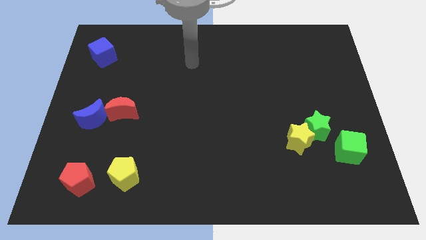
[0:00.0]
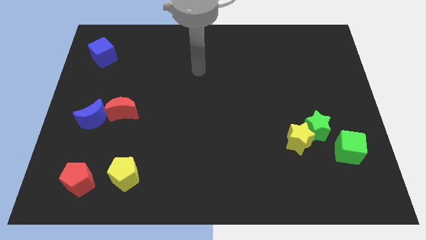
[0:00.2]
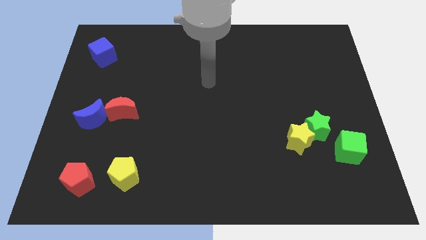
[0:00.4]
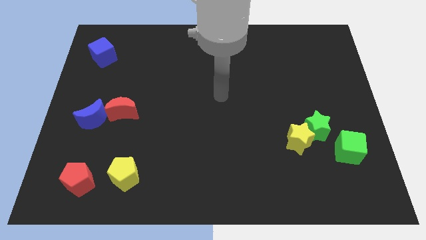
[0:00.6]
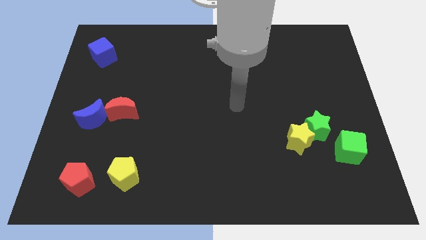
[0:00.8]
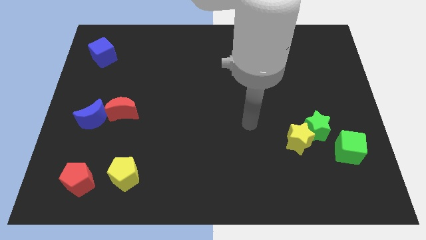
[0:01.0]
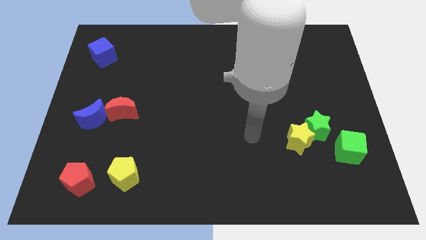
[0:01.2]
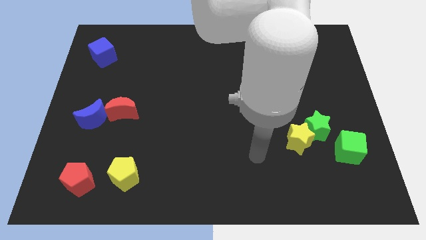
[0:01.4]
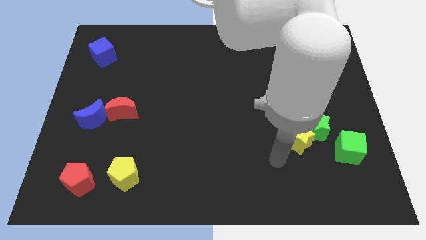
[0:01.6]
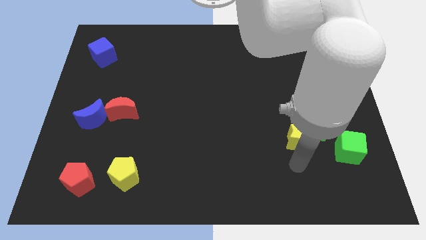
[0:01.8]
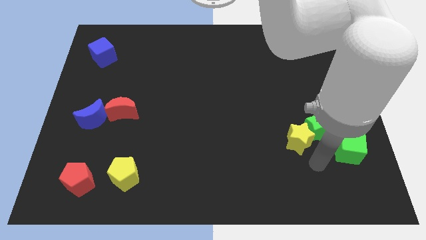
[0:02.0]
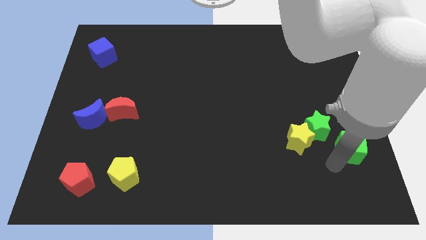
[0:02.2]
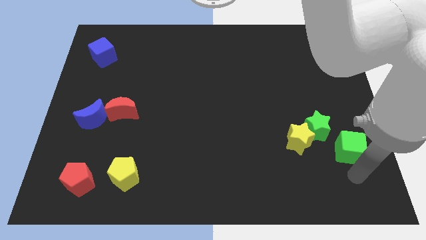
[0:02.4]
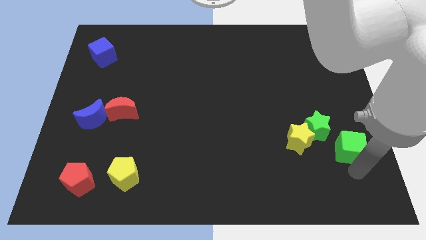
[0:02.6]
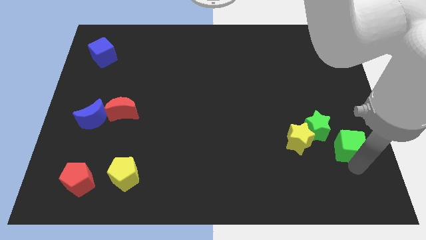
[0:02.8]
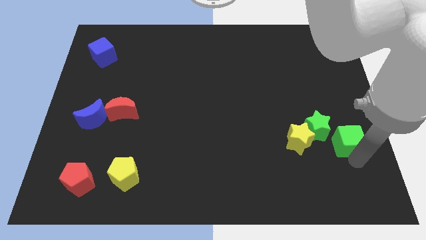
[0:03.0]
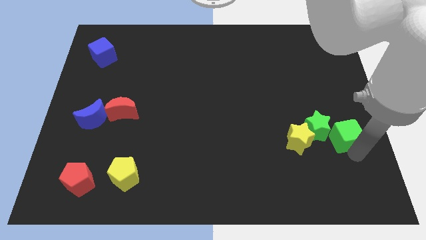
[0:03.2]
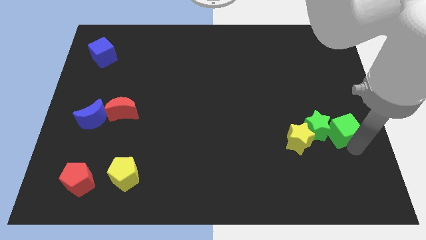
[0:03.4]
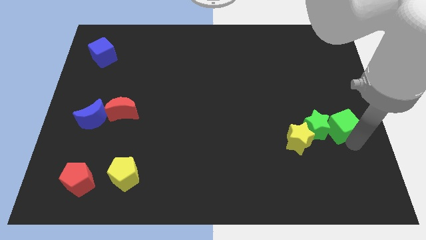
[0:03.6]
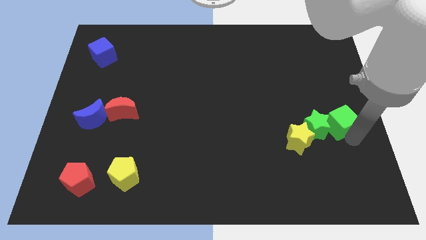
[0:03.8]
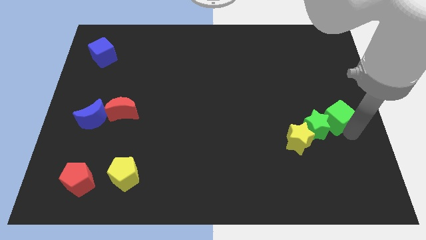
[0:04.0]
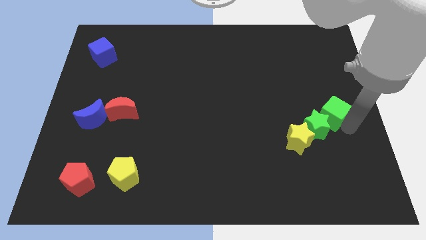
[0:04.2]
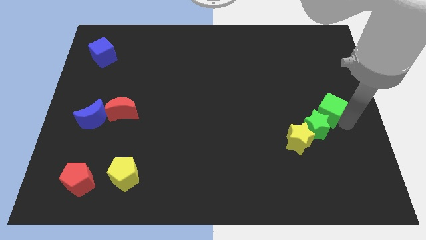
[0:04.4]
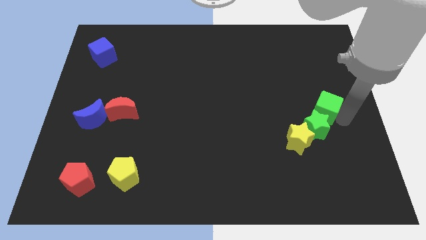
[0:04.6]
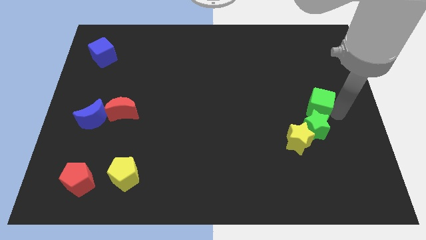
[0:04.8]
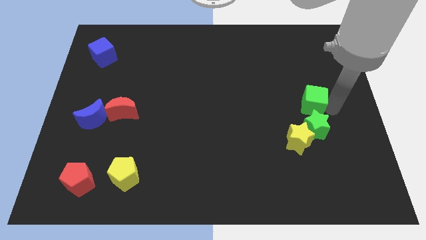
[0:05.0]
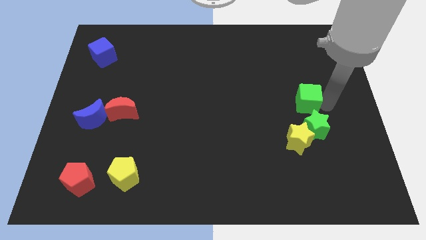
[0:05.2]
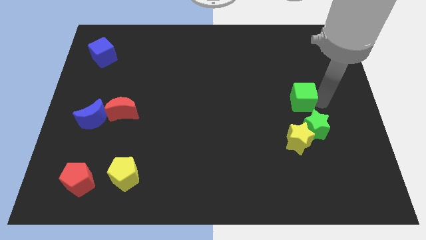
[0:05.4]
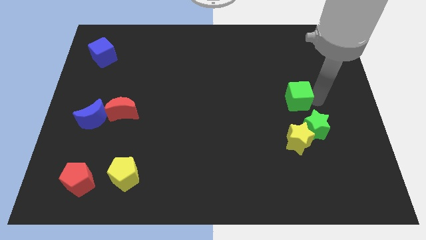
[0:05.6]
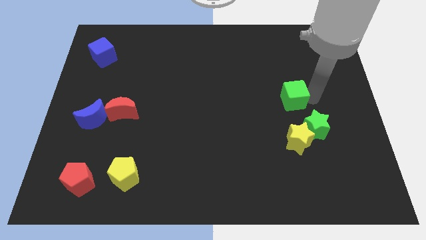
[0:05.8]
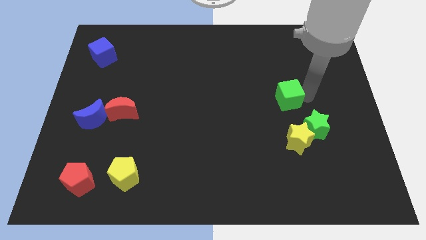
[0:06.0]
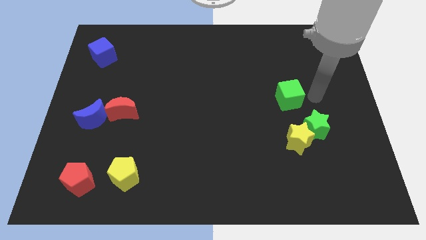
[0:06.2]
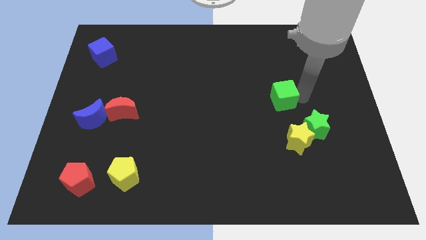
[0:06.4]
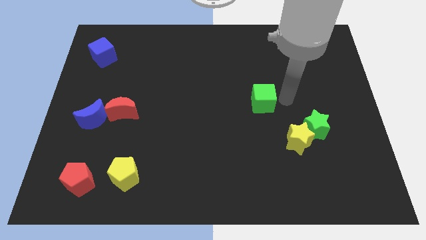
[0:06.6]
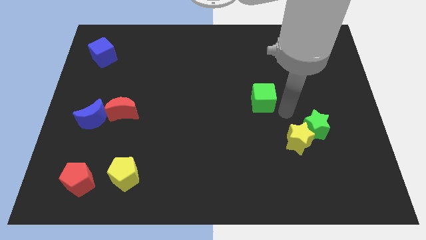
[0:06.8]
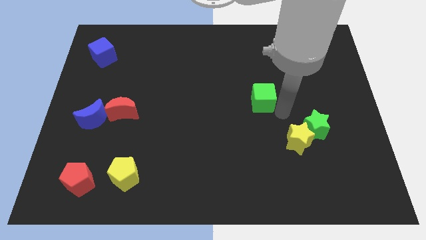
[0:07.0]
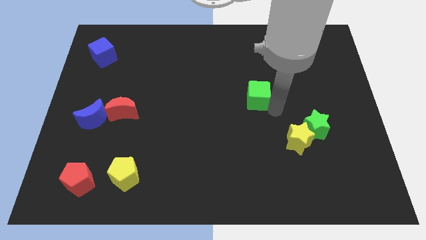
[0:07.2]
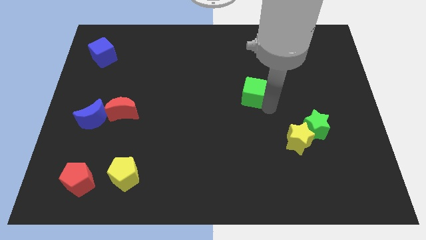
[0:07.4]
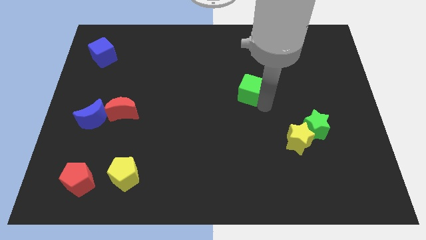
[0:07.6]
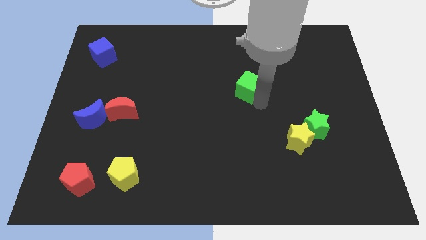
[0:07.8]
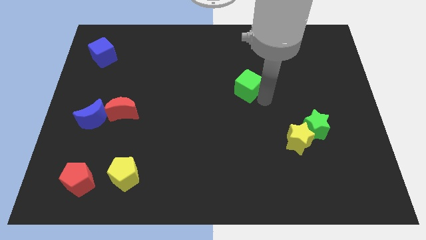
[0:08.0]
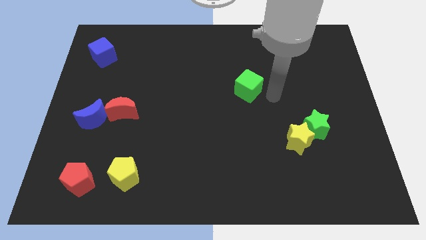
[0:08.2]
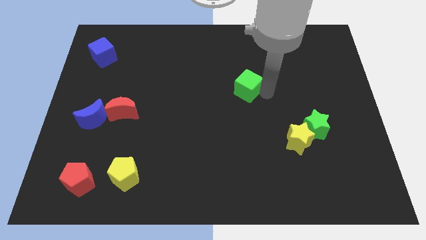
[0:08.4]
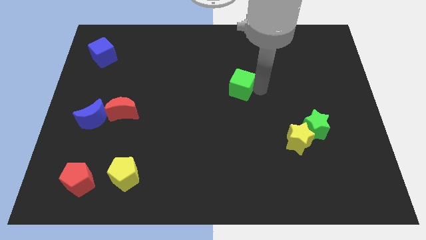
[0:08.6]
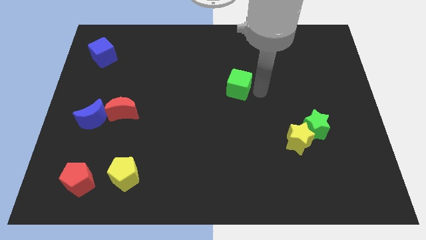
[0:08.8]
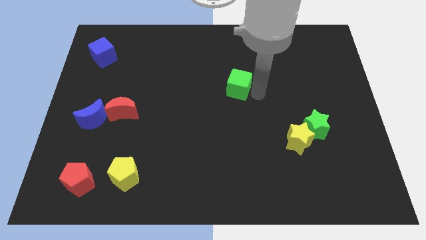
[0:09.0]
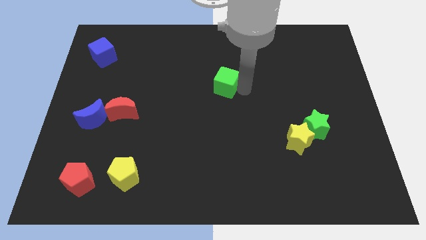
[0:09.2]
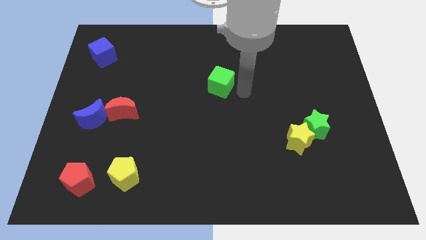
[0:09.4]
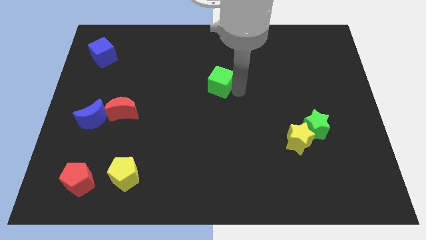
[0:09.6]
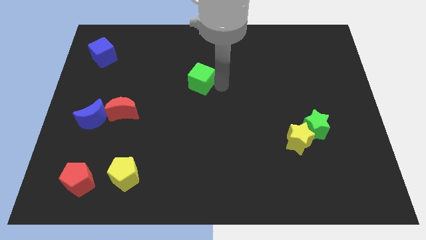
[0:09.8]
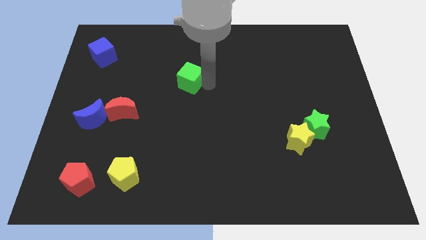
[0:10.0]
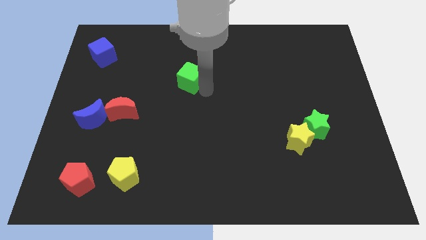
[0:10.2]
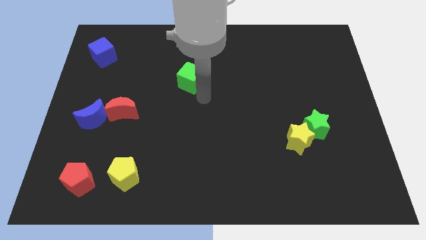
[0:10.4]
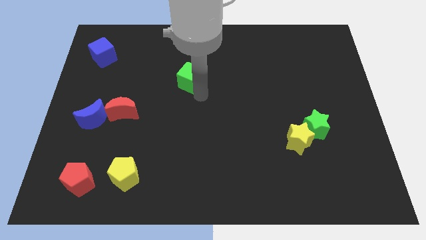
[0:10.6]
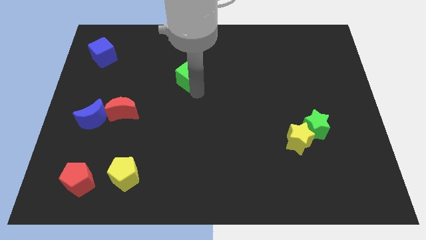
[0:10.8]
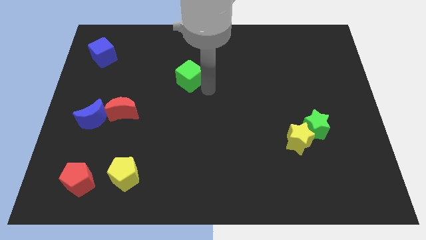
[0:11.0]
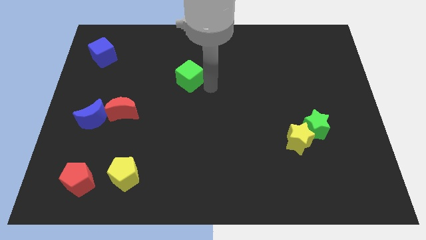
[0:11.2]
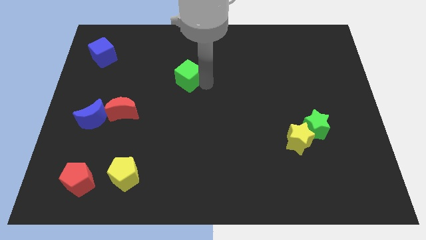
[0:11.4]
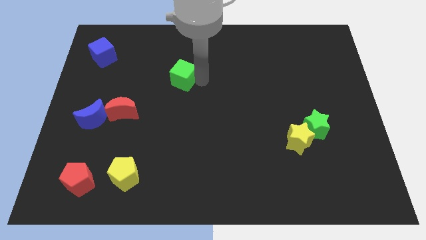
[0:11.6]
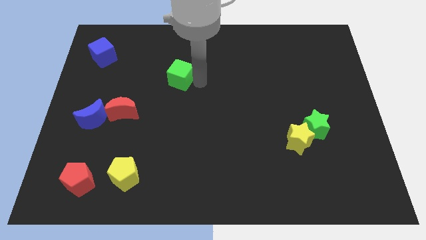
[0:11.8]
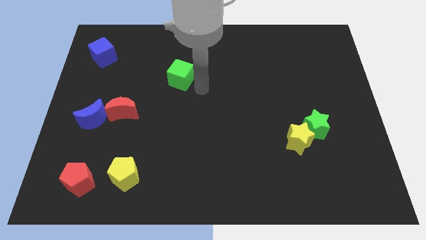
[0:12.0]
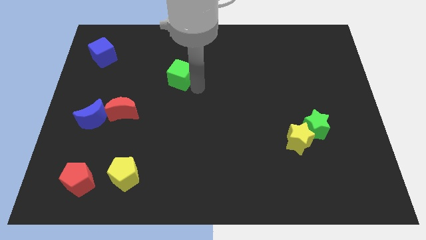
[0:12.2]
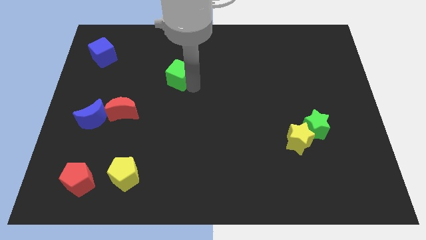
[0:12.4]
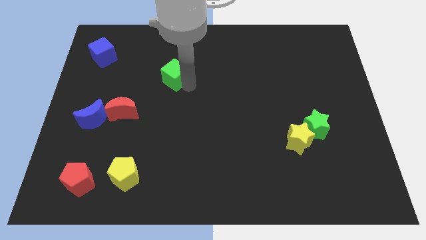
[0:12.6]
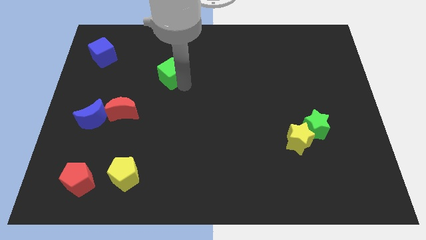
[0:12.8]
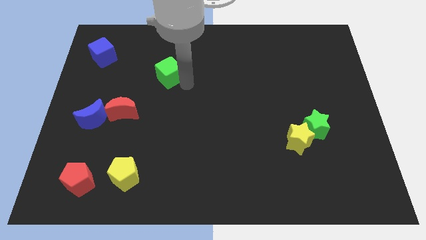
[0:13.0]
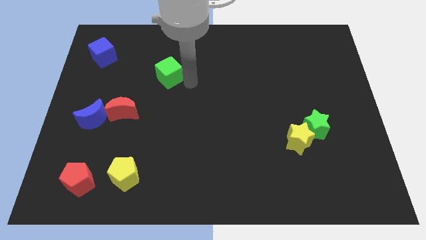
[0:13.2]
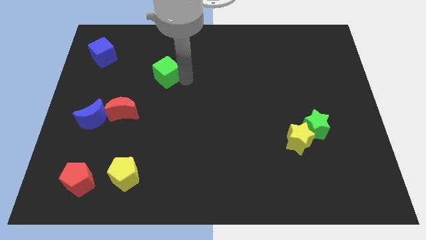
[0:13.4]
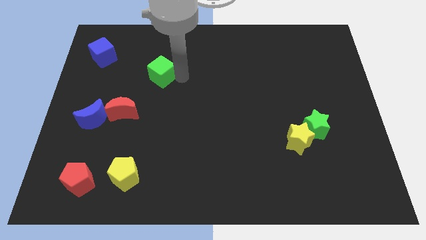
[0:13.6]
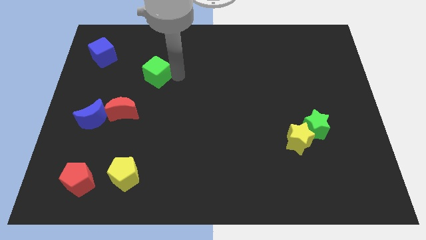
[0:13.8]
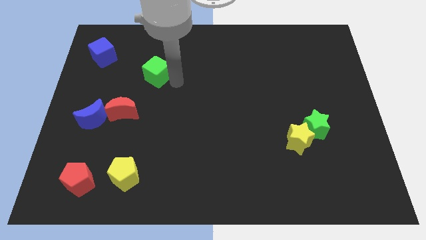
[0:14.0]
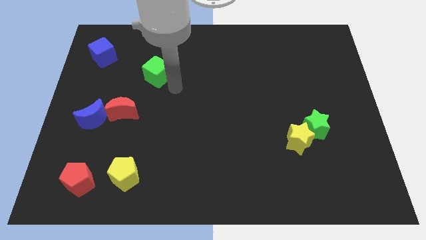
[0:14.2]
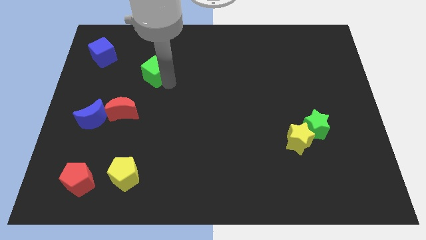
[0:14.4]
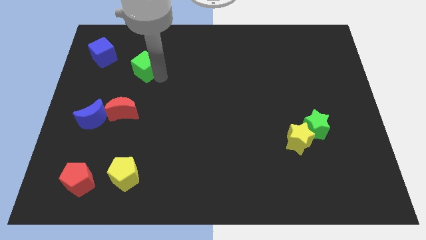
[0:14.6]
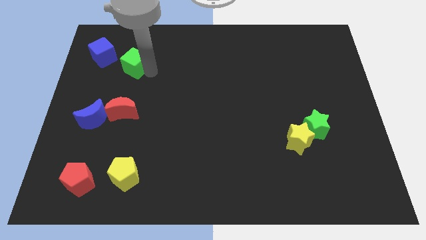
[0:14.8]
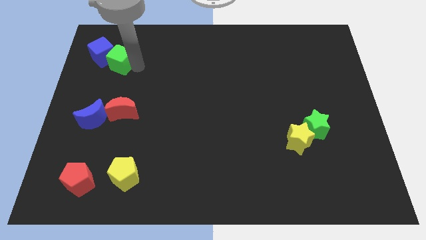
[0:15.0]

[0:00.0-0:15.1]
push the green cube next to the blue cube
